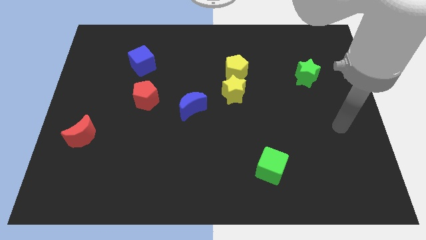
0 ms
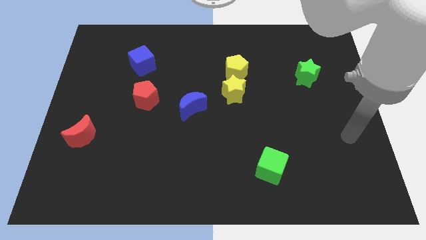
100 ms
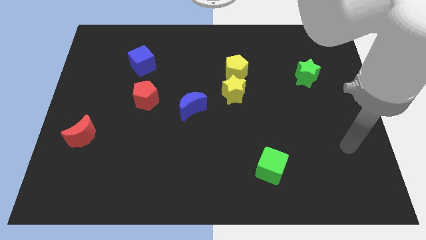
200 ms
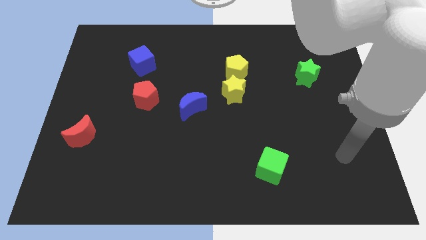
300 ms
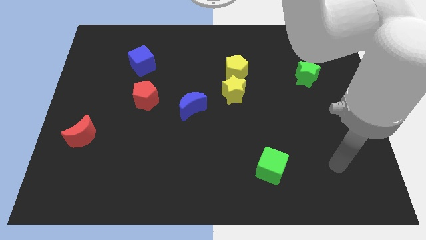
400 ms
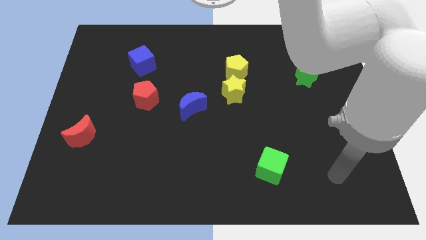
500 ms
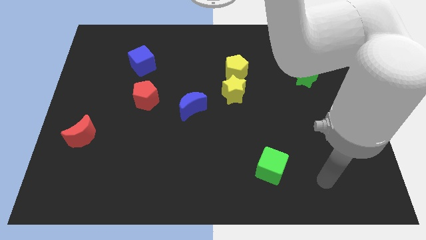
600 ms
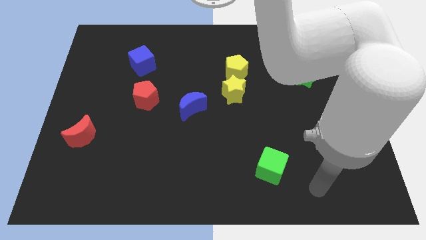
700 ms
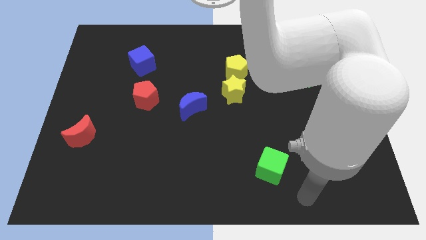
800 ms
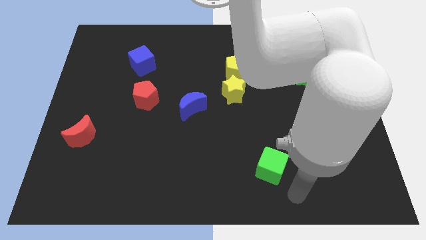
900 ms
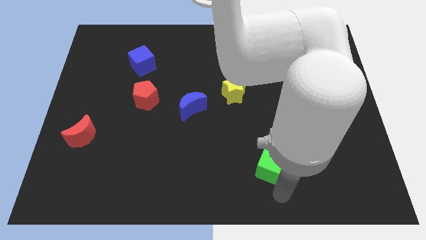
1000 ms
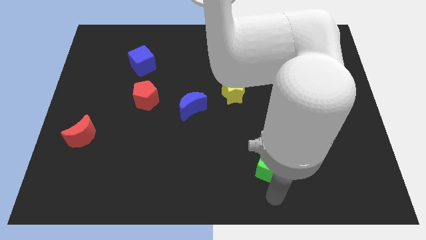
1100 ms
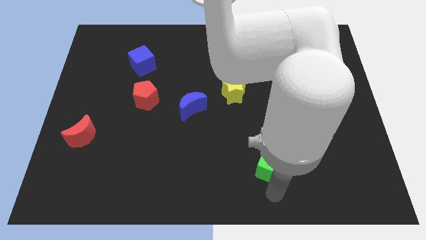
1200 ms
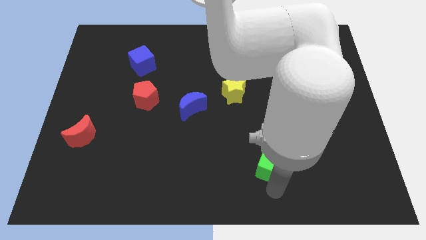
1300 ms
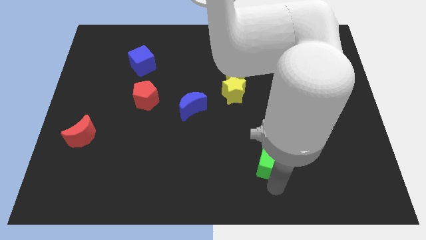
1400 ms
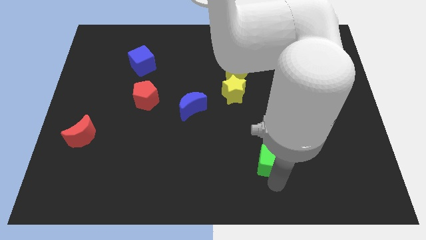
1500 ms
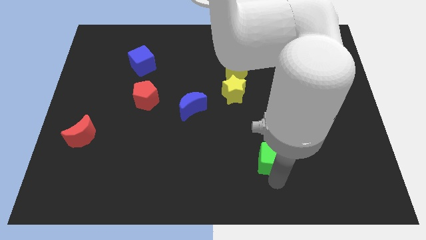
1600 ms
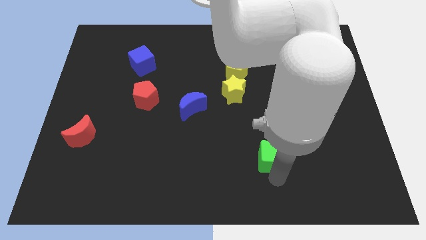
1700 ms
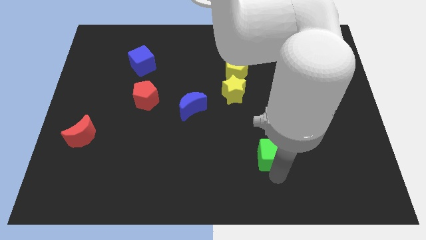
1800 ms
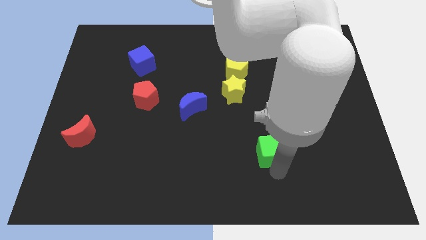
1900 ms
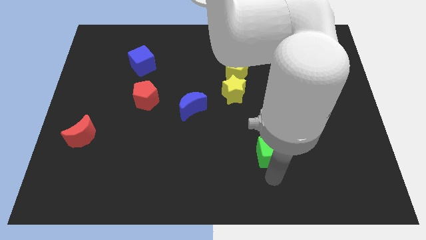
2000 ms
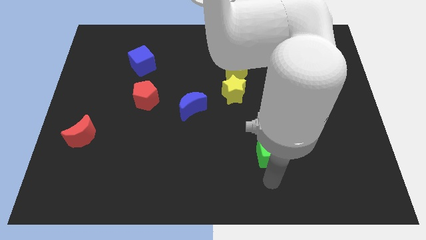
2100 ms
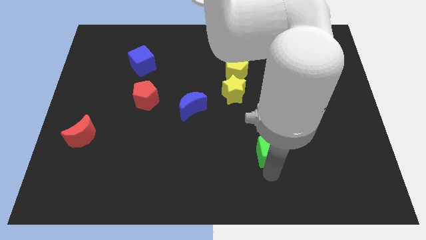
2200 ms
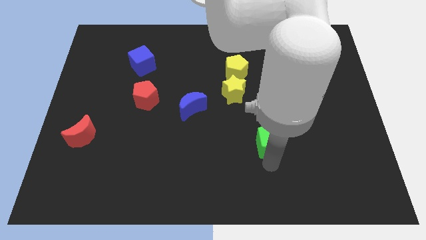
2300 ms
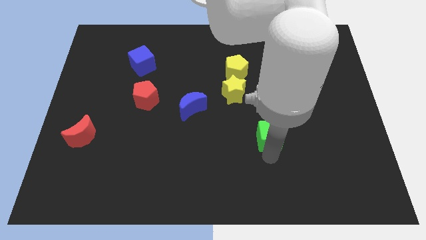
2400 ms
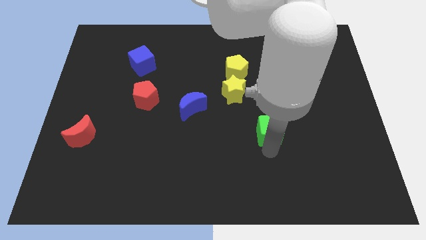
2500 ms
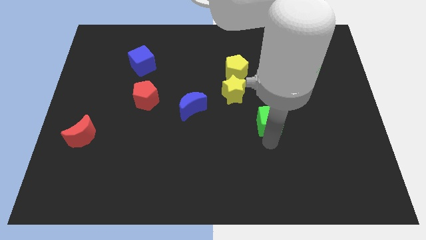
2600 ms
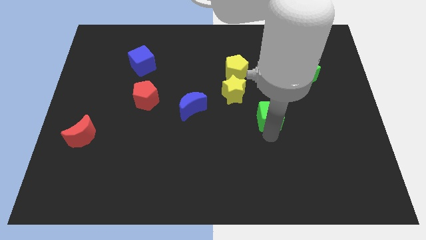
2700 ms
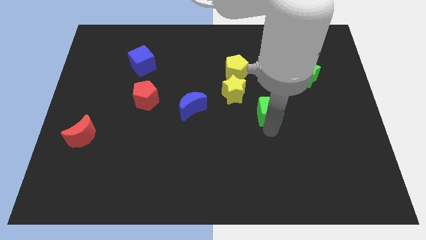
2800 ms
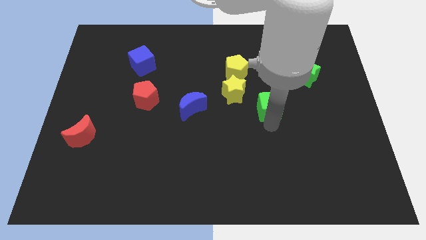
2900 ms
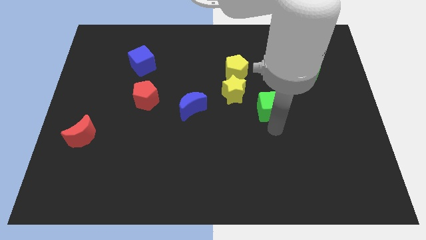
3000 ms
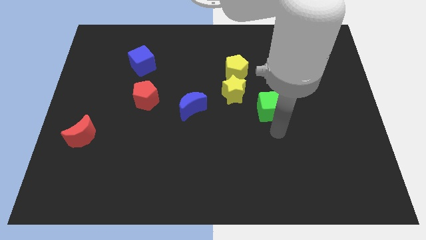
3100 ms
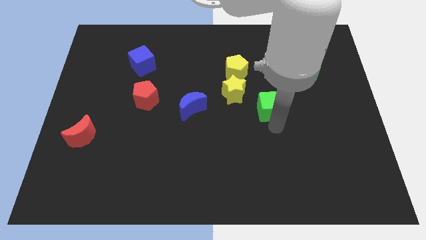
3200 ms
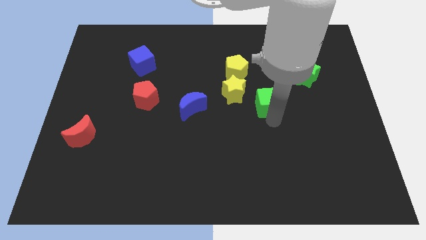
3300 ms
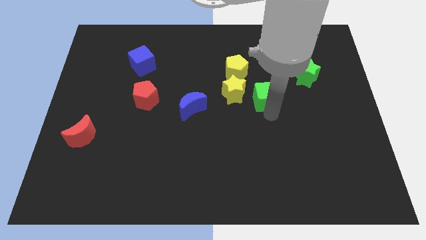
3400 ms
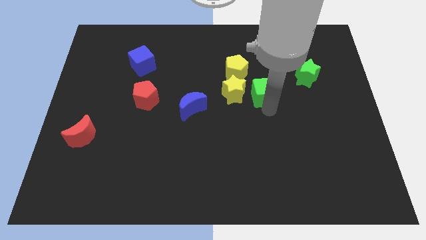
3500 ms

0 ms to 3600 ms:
push the green cube up

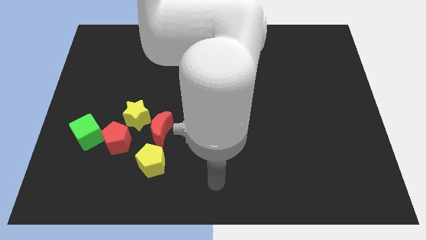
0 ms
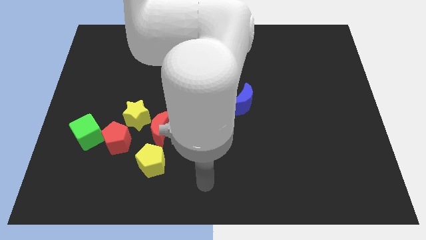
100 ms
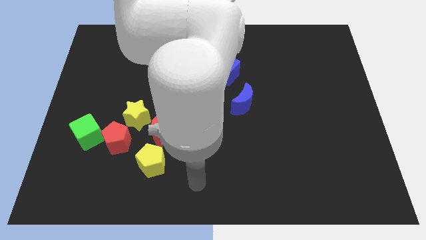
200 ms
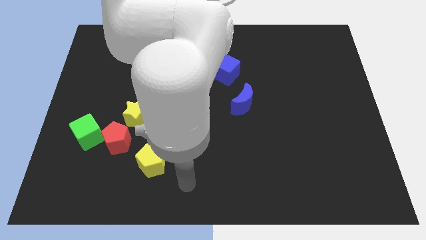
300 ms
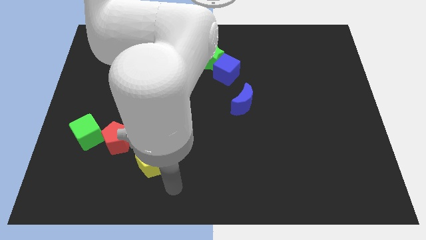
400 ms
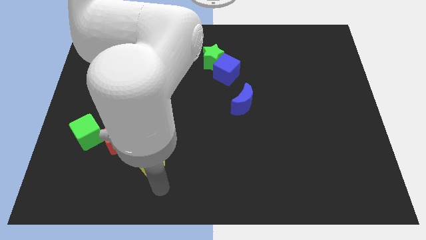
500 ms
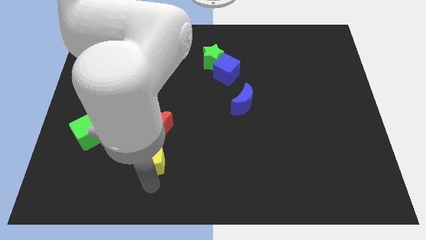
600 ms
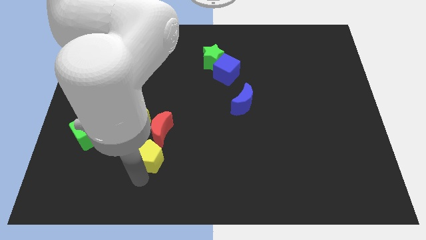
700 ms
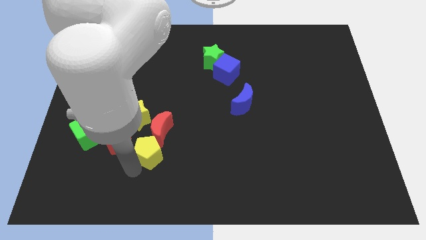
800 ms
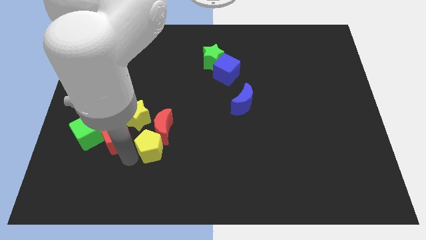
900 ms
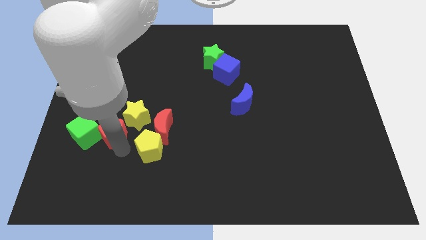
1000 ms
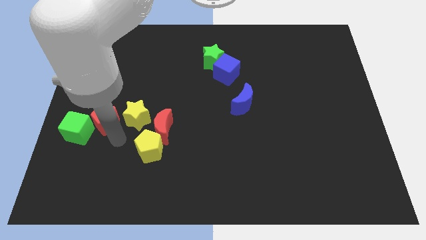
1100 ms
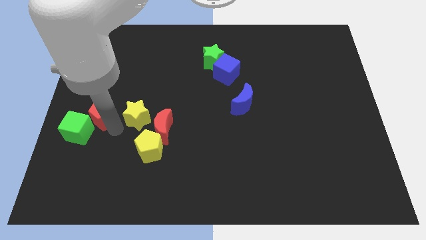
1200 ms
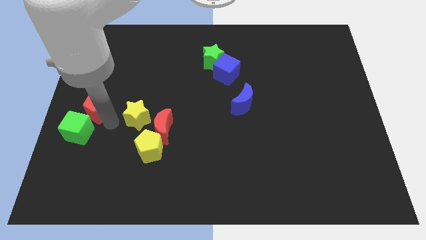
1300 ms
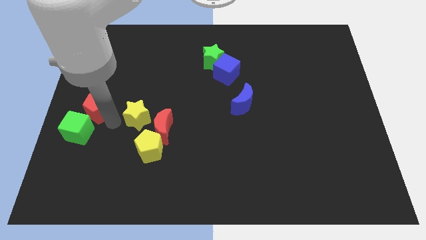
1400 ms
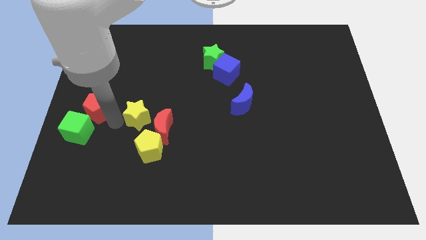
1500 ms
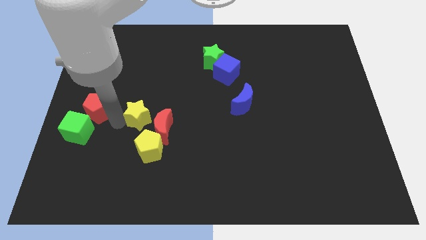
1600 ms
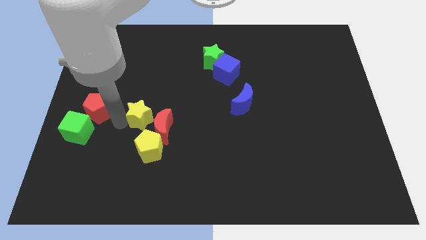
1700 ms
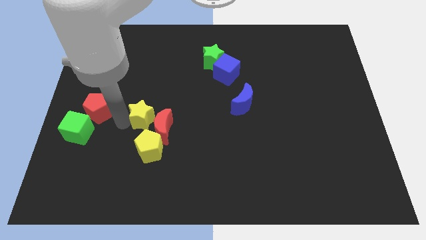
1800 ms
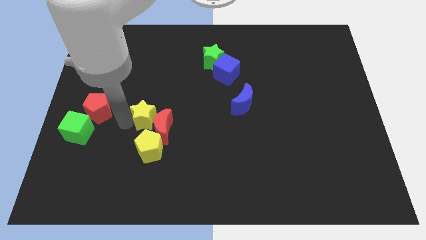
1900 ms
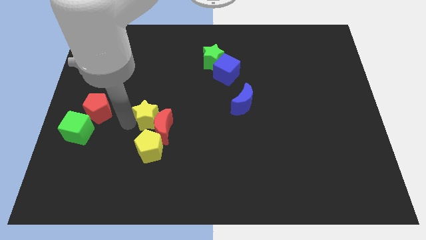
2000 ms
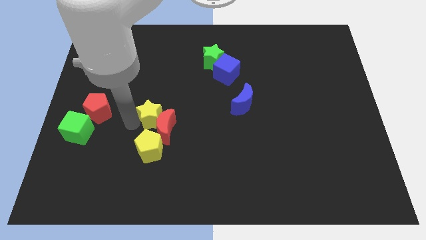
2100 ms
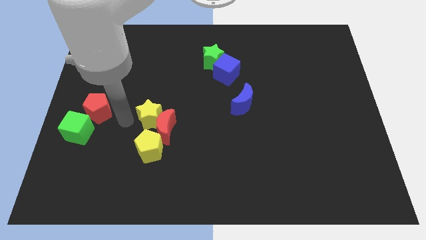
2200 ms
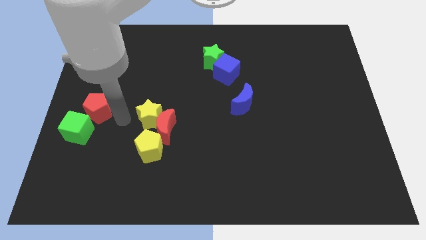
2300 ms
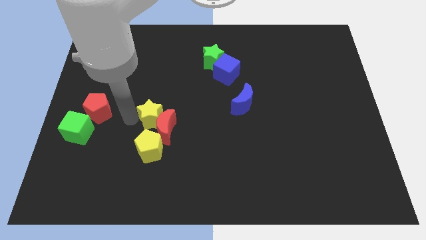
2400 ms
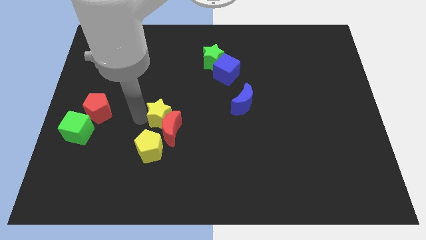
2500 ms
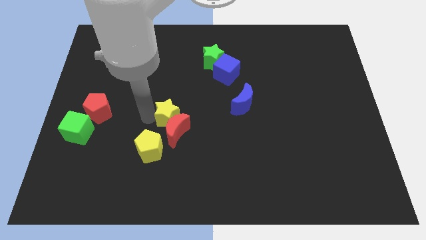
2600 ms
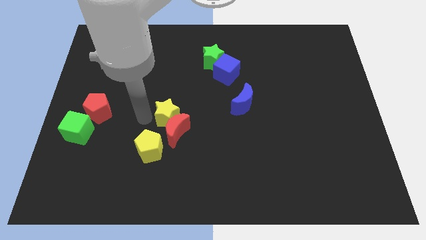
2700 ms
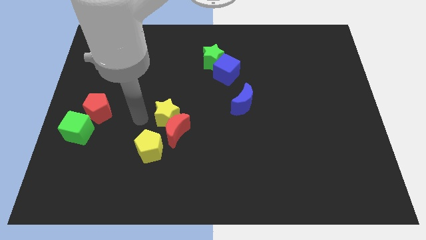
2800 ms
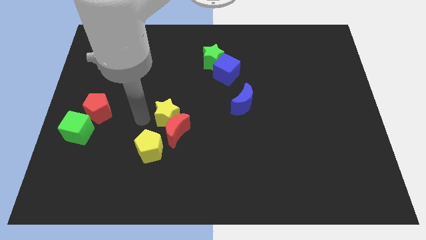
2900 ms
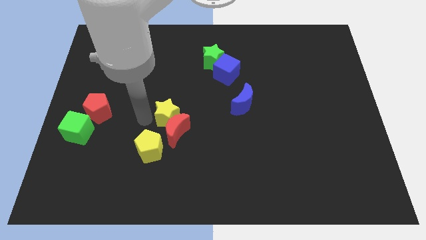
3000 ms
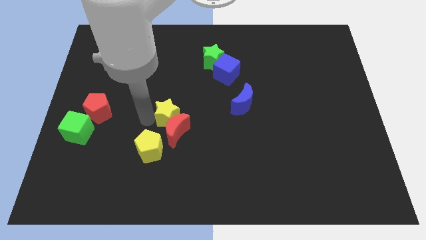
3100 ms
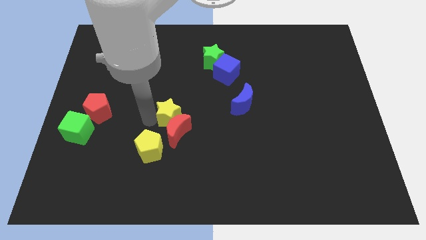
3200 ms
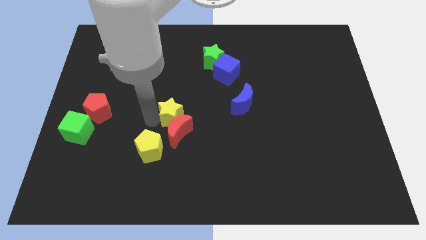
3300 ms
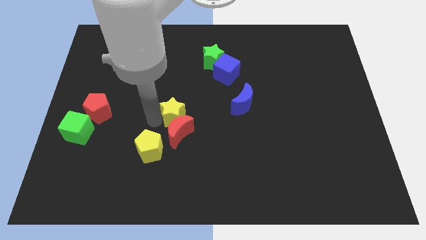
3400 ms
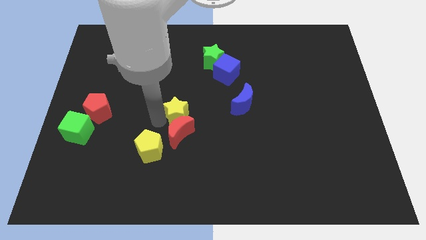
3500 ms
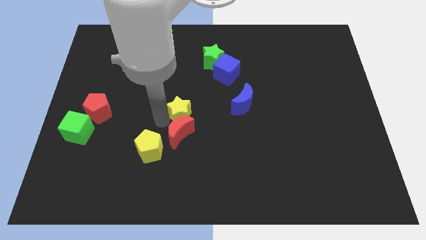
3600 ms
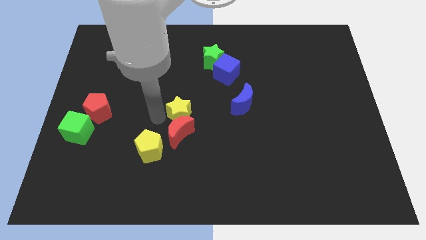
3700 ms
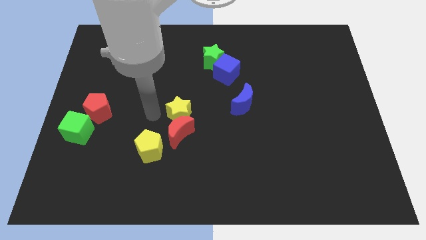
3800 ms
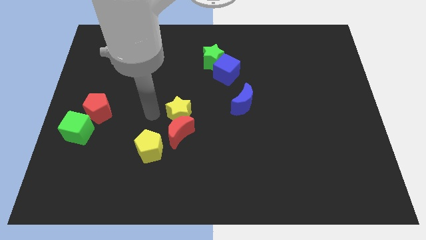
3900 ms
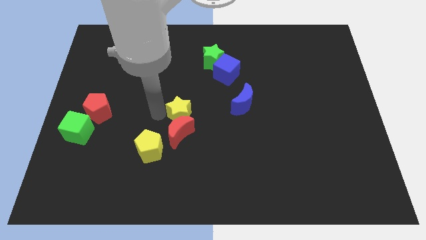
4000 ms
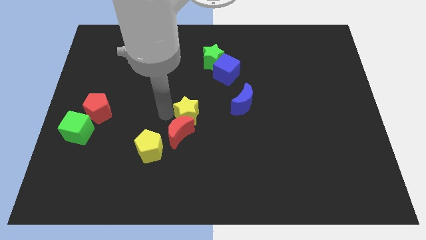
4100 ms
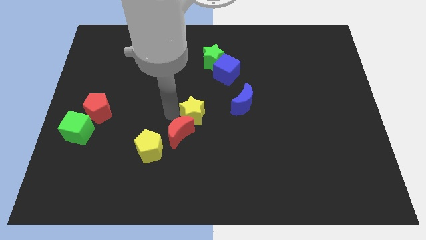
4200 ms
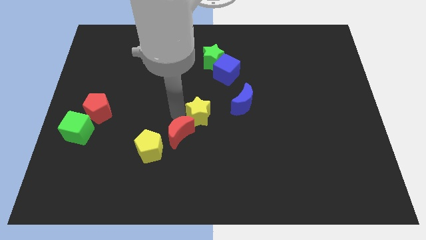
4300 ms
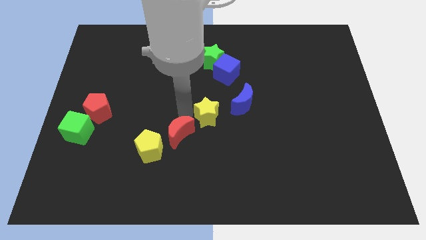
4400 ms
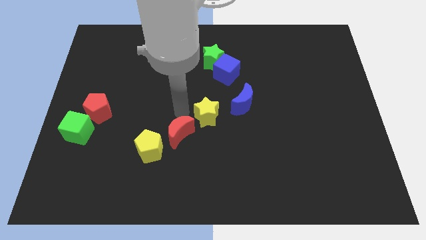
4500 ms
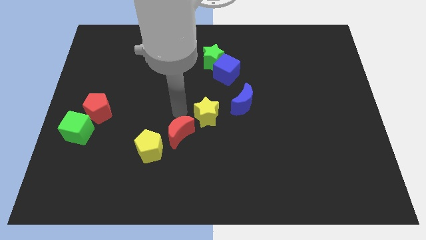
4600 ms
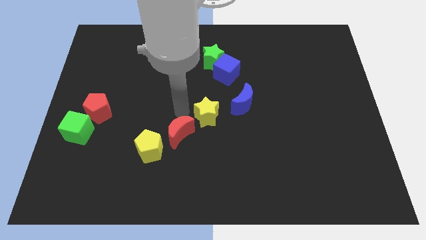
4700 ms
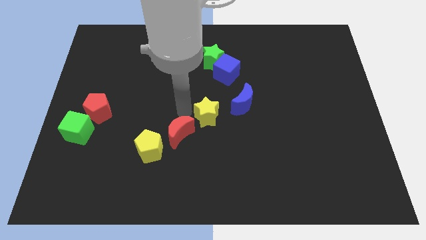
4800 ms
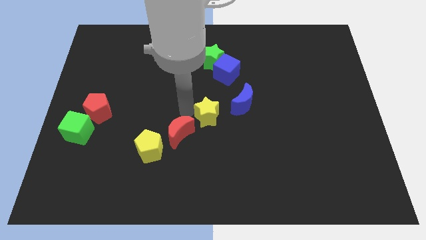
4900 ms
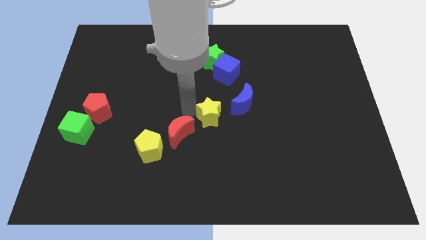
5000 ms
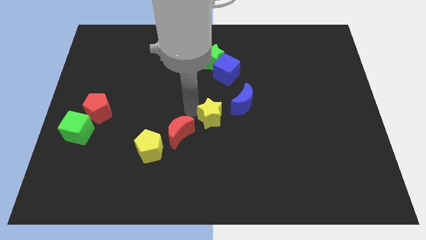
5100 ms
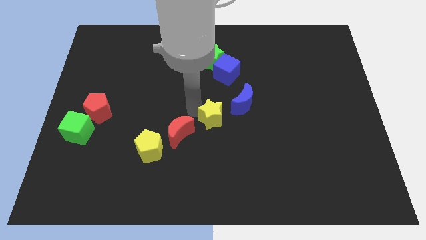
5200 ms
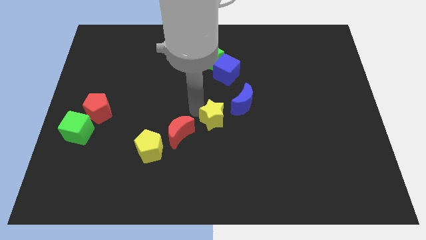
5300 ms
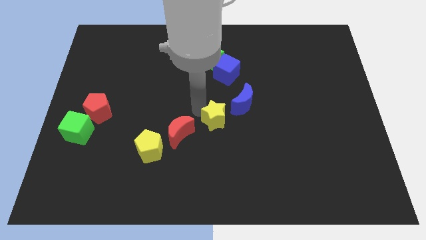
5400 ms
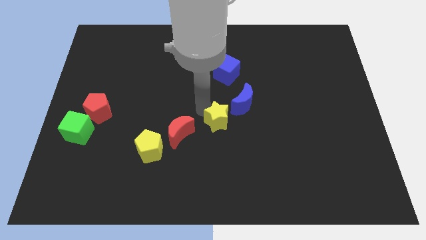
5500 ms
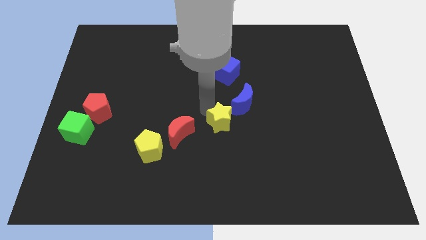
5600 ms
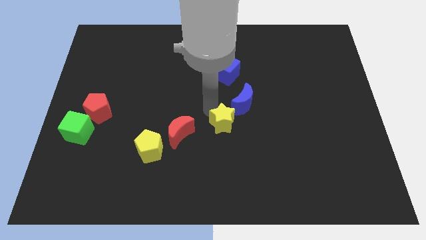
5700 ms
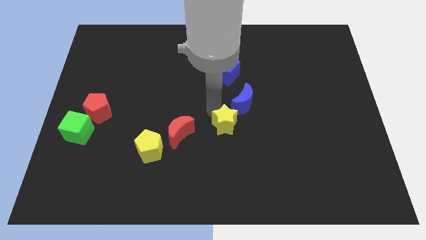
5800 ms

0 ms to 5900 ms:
push the yellow star right
